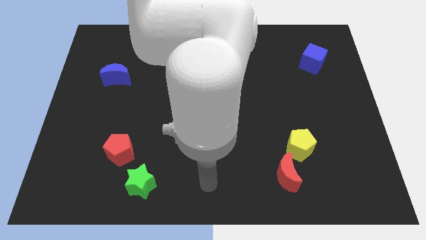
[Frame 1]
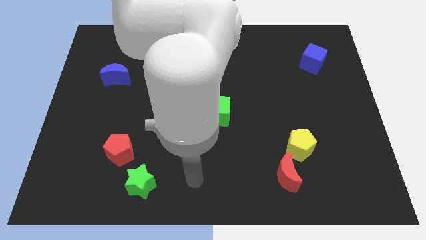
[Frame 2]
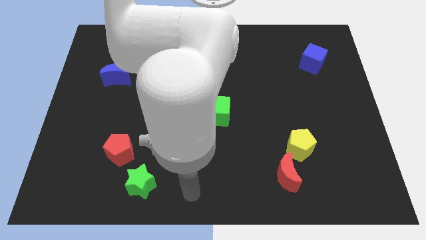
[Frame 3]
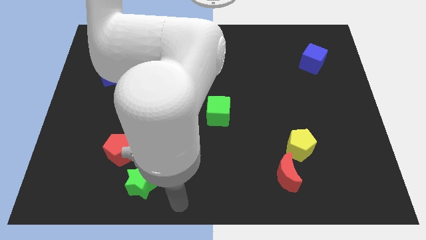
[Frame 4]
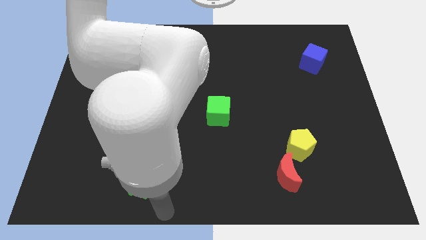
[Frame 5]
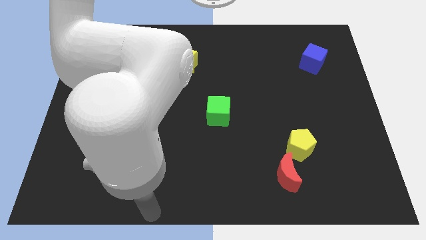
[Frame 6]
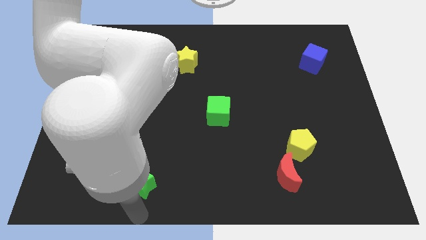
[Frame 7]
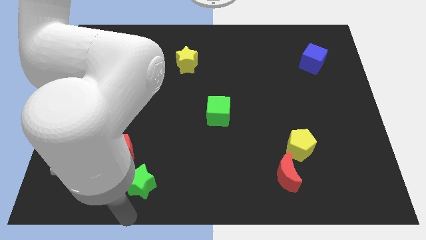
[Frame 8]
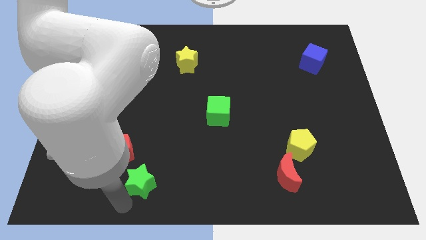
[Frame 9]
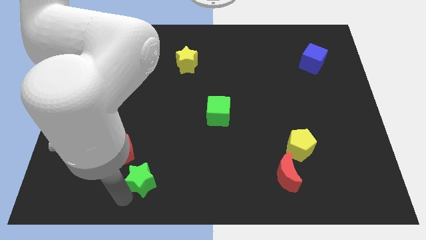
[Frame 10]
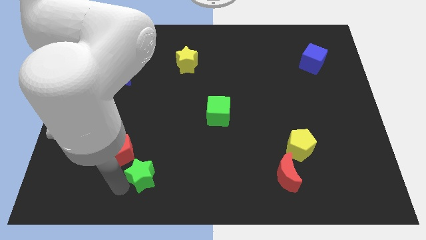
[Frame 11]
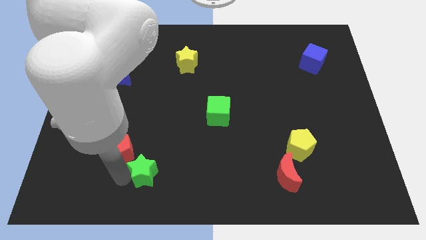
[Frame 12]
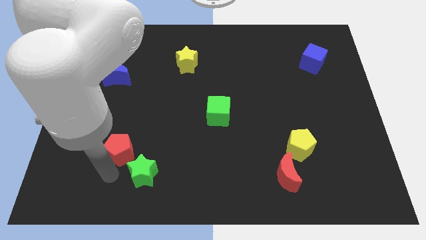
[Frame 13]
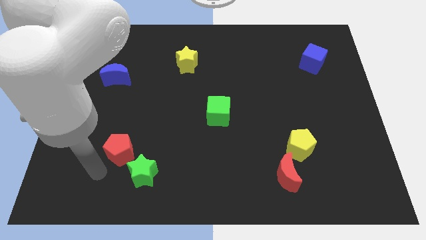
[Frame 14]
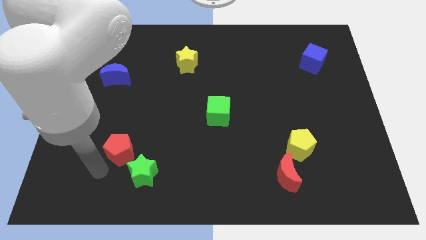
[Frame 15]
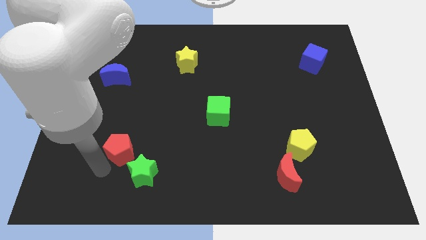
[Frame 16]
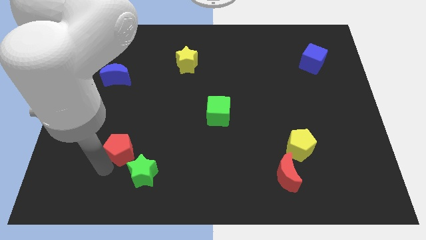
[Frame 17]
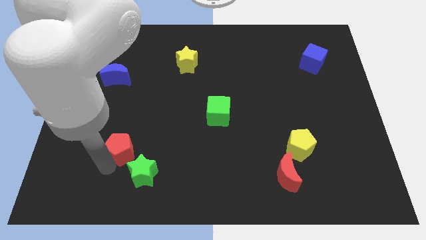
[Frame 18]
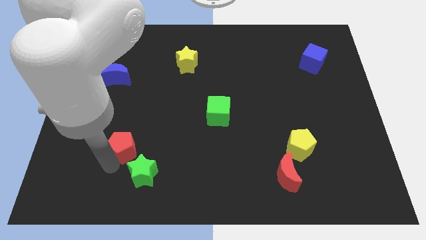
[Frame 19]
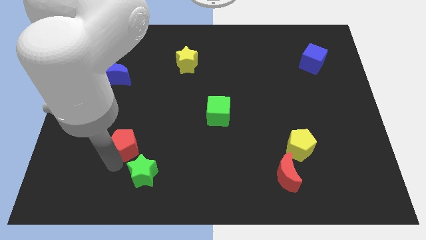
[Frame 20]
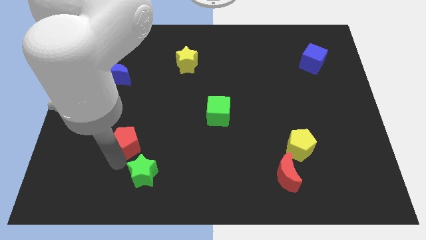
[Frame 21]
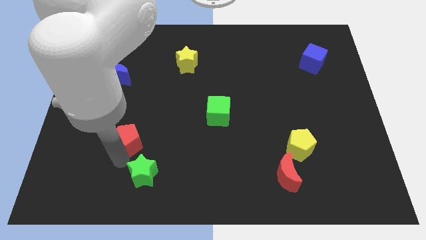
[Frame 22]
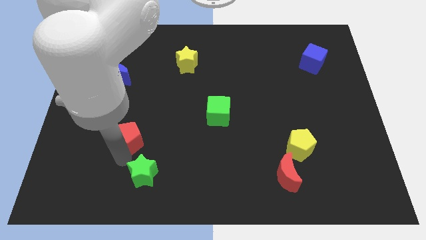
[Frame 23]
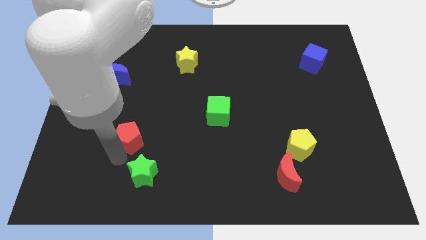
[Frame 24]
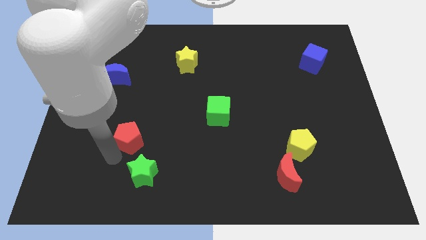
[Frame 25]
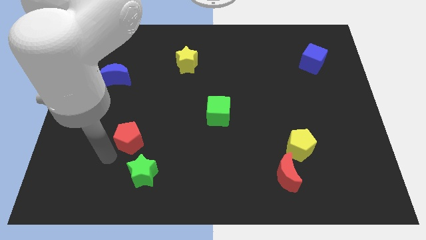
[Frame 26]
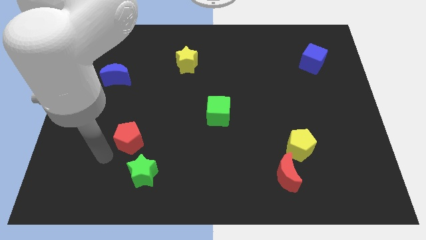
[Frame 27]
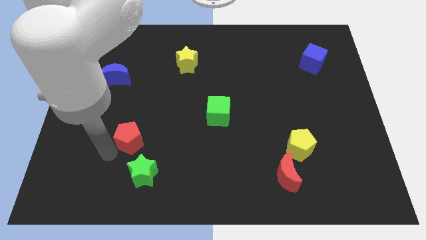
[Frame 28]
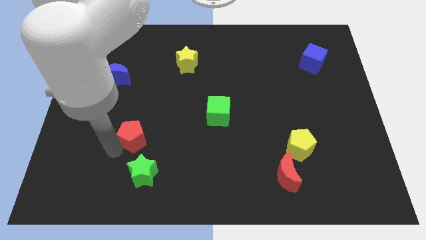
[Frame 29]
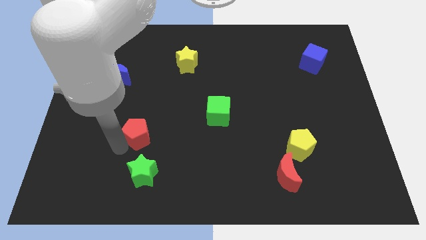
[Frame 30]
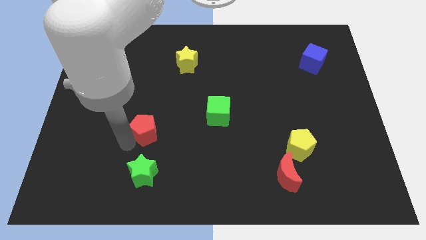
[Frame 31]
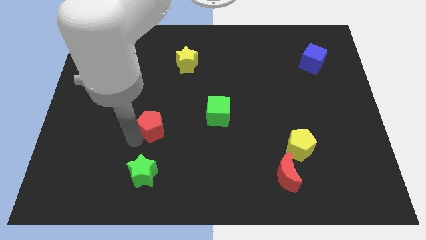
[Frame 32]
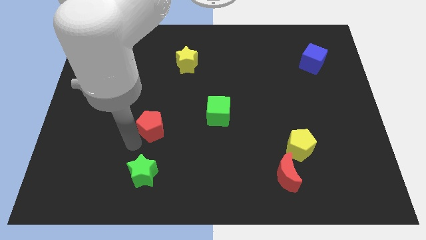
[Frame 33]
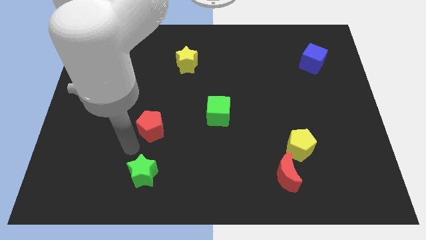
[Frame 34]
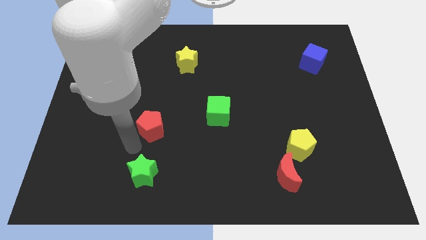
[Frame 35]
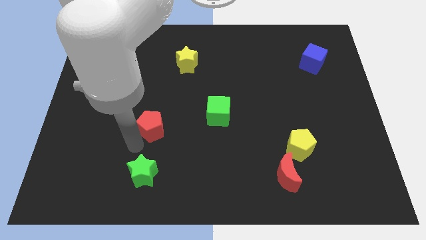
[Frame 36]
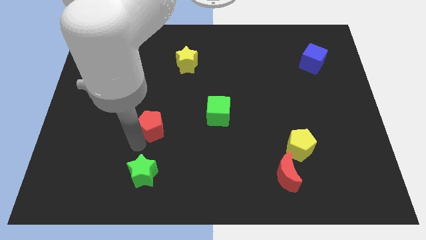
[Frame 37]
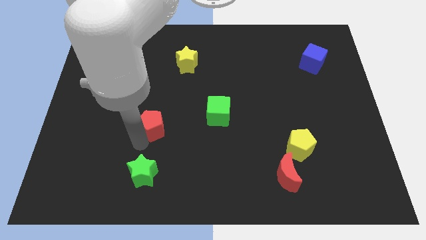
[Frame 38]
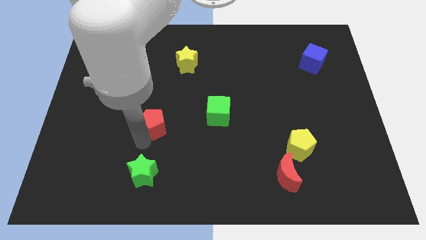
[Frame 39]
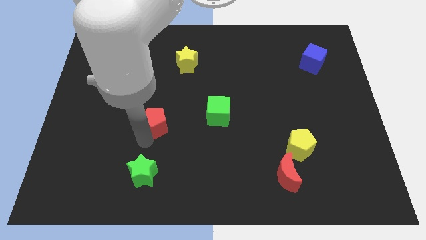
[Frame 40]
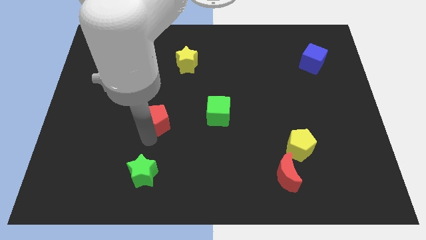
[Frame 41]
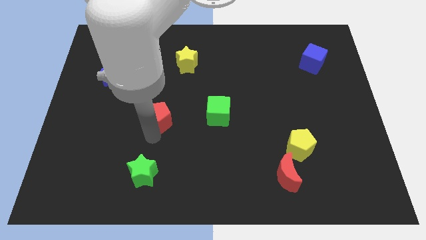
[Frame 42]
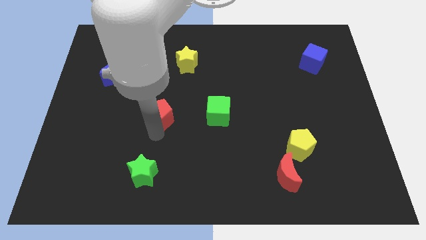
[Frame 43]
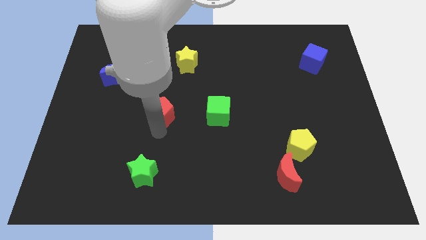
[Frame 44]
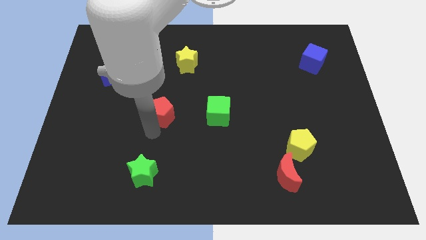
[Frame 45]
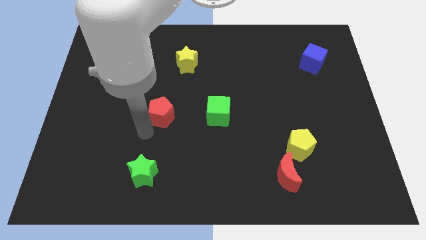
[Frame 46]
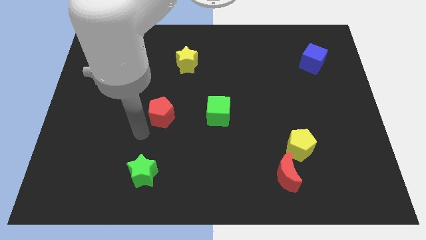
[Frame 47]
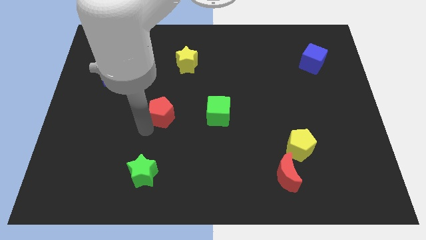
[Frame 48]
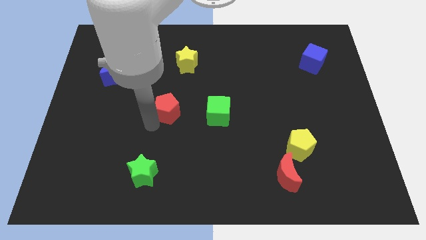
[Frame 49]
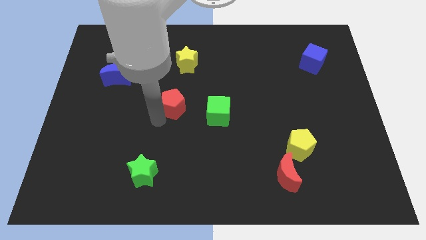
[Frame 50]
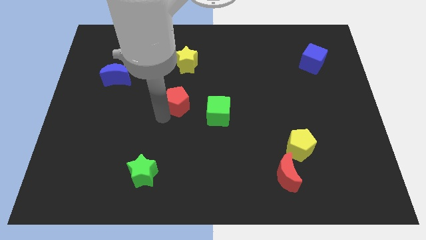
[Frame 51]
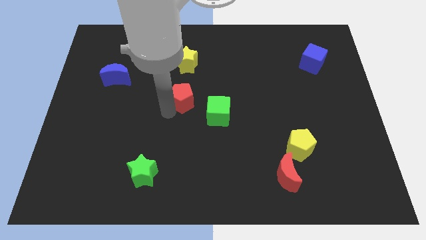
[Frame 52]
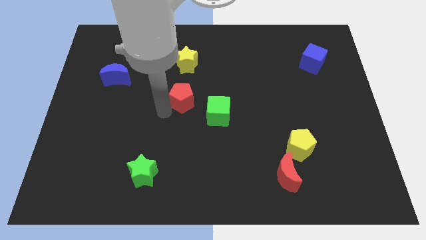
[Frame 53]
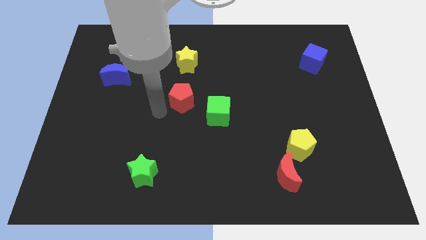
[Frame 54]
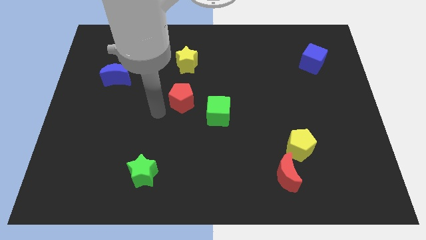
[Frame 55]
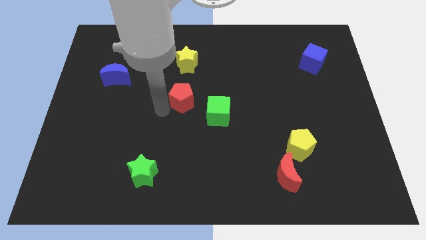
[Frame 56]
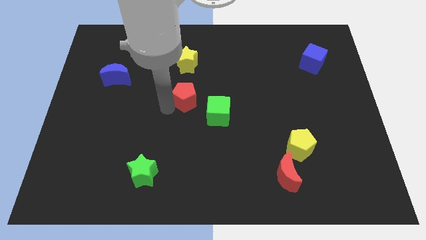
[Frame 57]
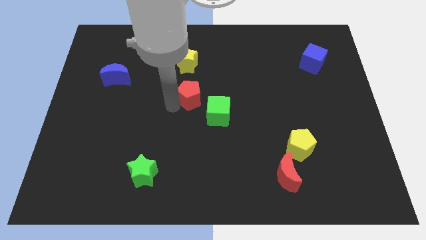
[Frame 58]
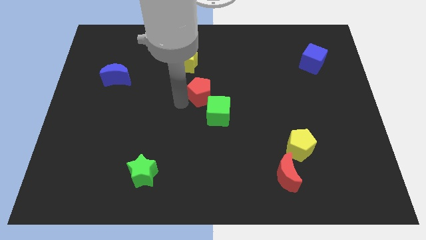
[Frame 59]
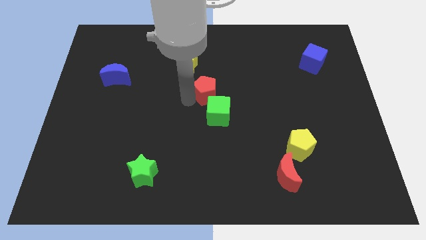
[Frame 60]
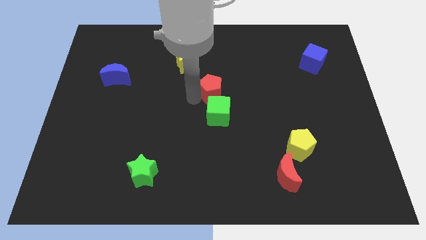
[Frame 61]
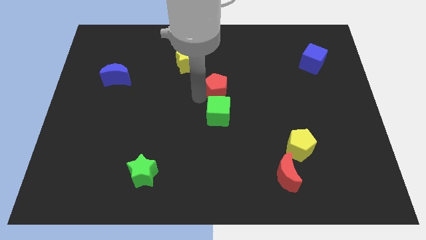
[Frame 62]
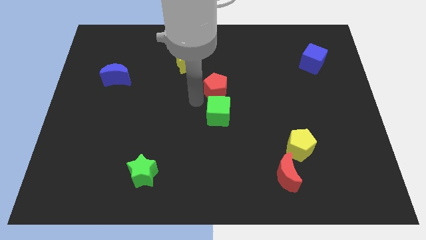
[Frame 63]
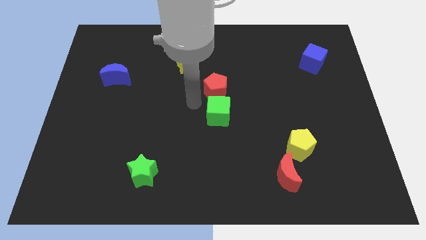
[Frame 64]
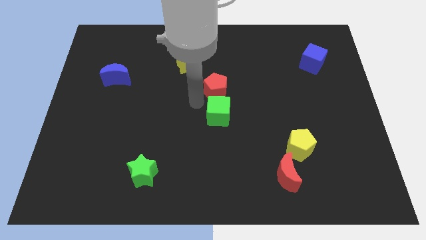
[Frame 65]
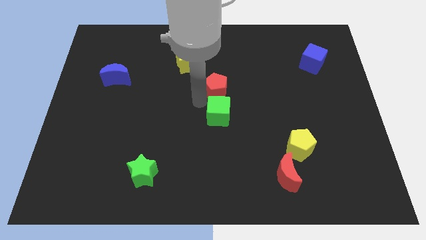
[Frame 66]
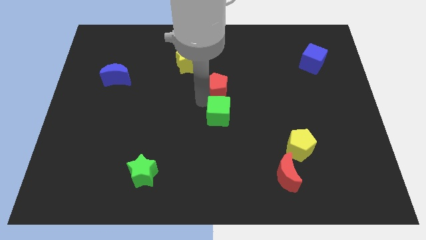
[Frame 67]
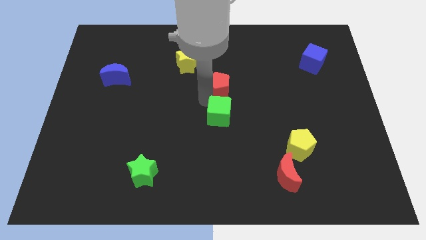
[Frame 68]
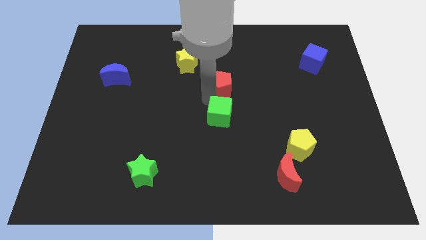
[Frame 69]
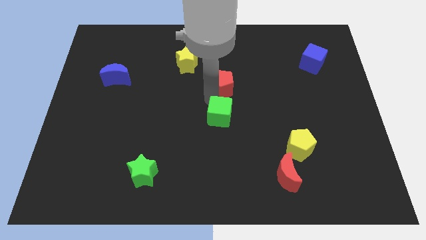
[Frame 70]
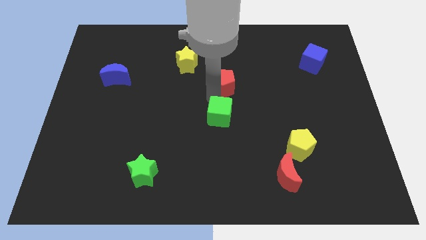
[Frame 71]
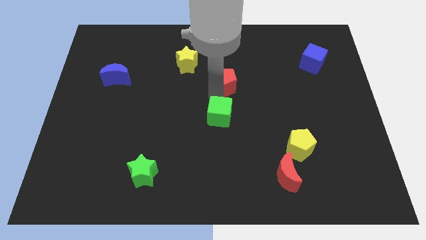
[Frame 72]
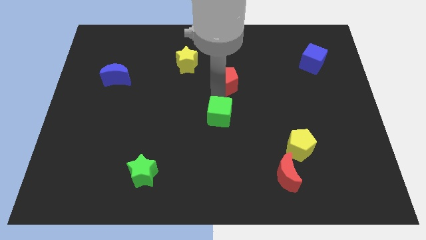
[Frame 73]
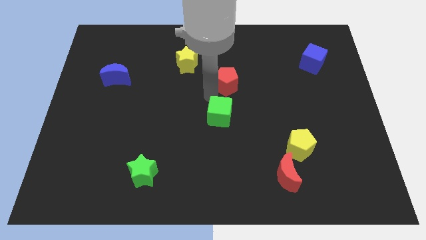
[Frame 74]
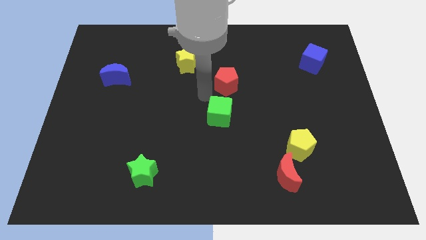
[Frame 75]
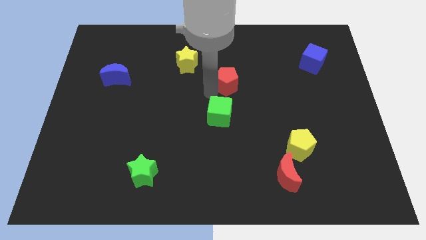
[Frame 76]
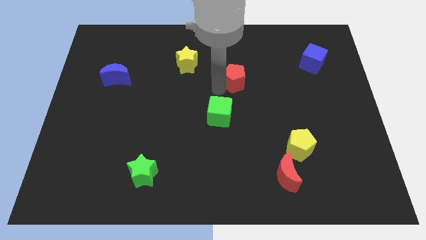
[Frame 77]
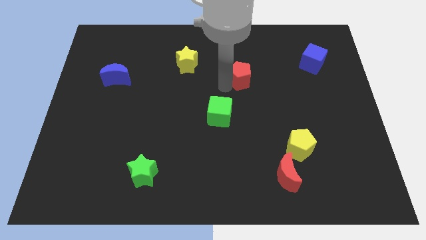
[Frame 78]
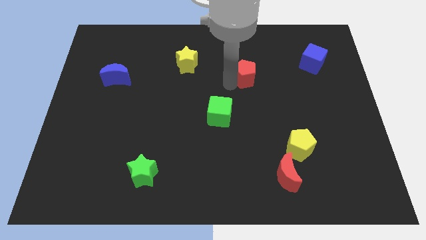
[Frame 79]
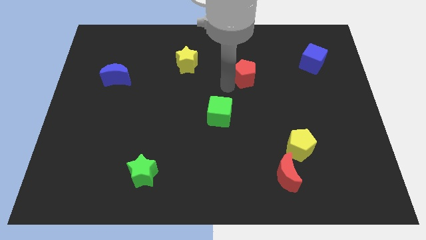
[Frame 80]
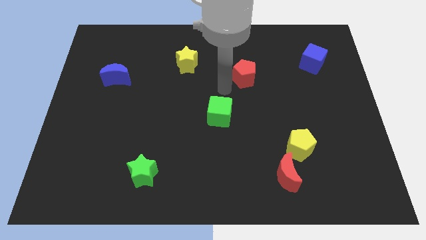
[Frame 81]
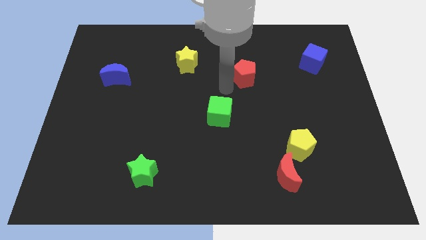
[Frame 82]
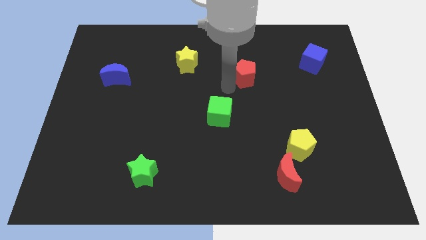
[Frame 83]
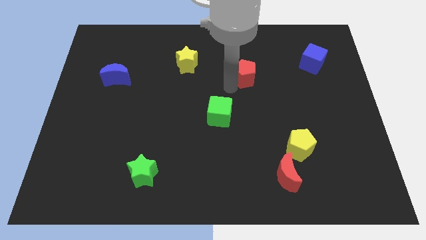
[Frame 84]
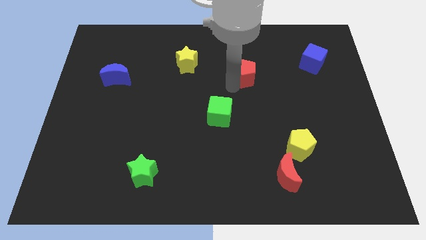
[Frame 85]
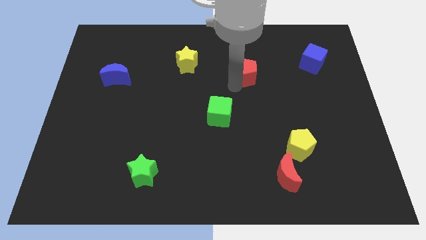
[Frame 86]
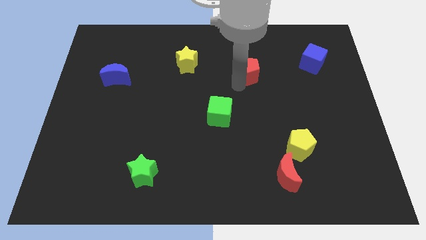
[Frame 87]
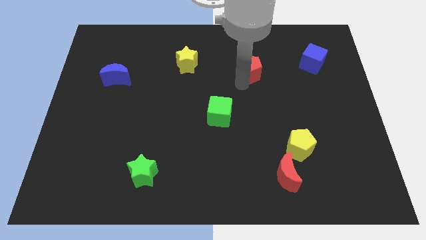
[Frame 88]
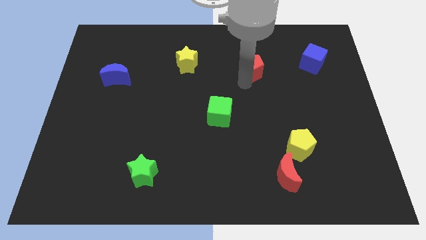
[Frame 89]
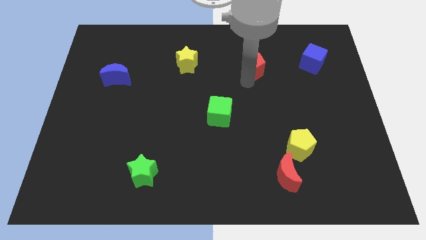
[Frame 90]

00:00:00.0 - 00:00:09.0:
put the red pentagon just left of the blue cube
